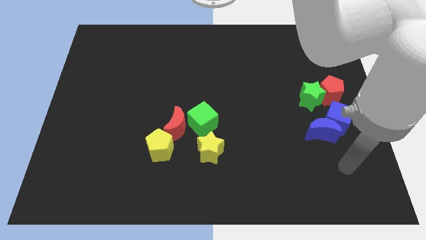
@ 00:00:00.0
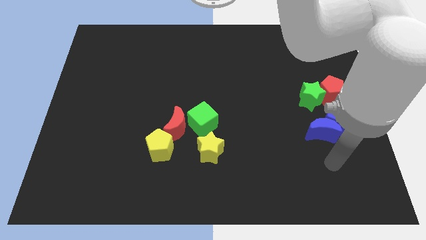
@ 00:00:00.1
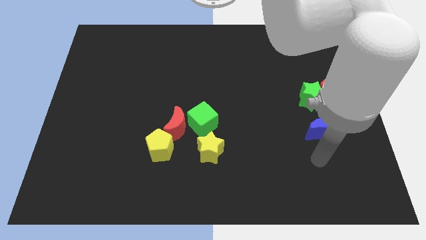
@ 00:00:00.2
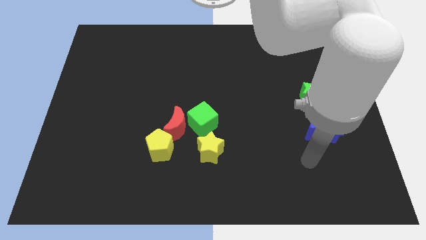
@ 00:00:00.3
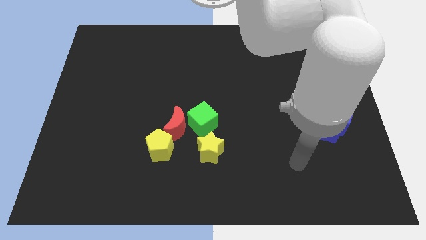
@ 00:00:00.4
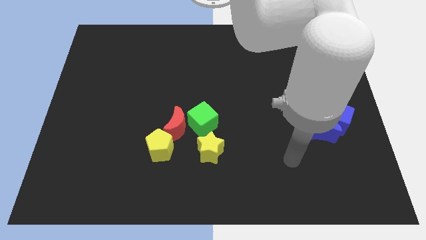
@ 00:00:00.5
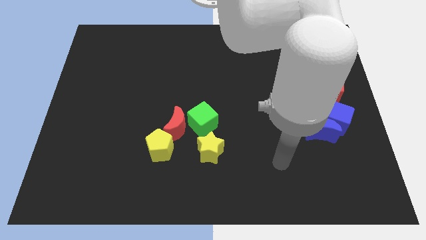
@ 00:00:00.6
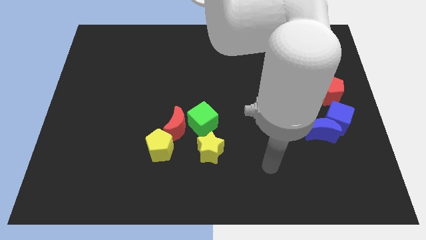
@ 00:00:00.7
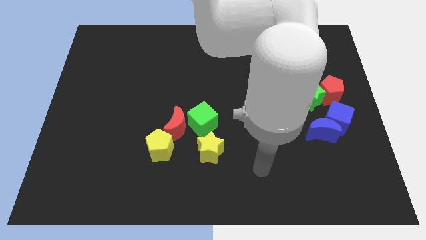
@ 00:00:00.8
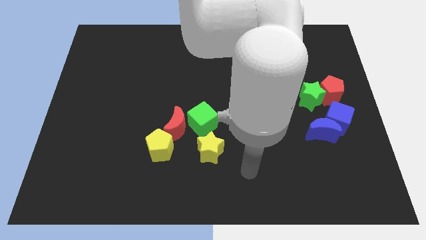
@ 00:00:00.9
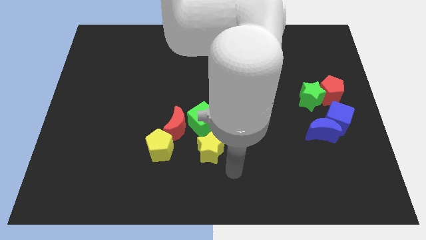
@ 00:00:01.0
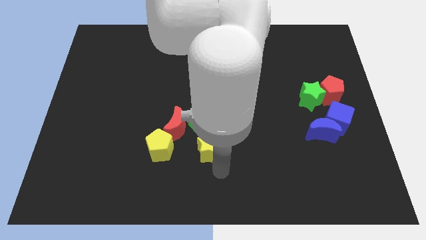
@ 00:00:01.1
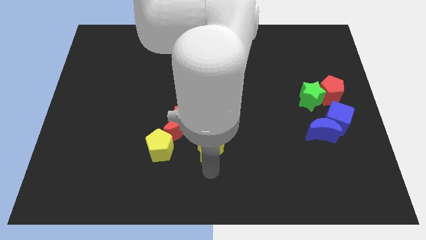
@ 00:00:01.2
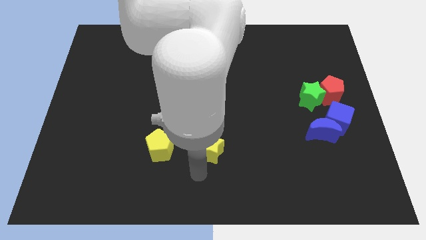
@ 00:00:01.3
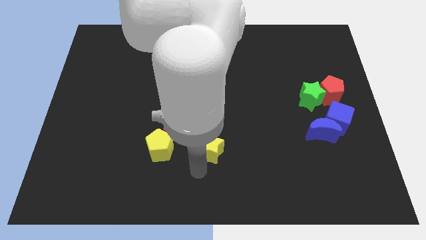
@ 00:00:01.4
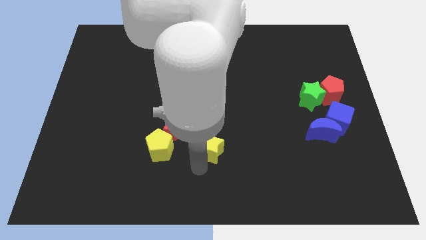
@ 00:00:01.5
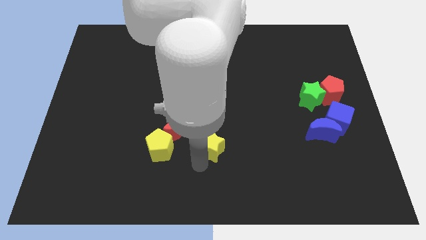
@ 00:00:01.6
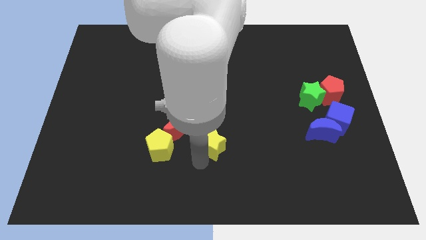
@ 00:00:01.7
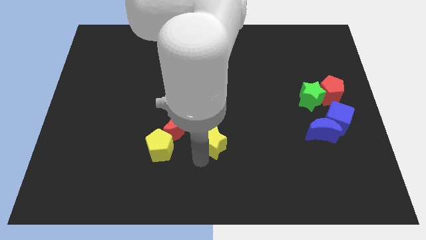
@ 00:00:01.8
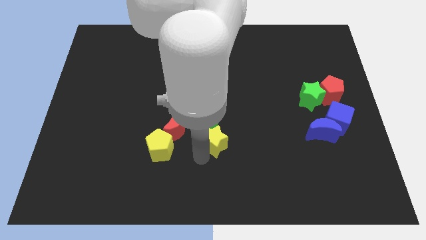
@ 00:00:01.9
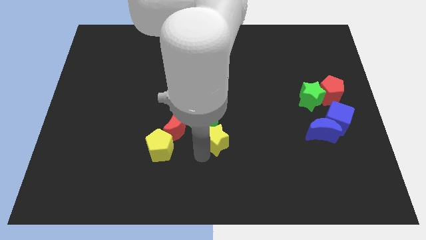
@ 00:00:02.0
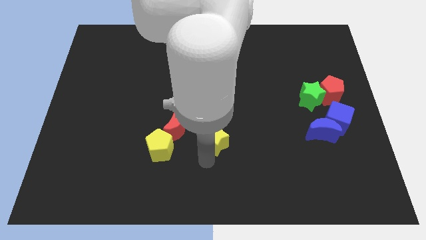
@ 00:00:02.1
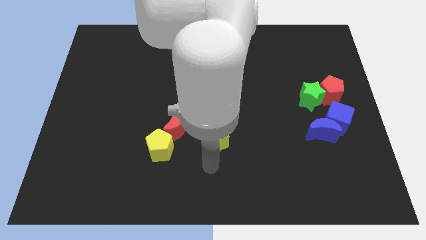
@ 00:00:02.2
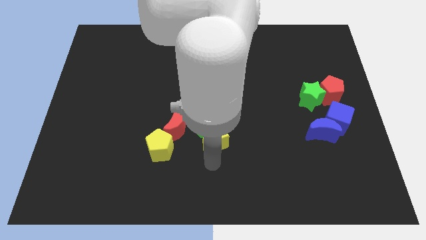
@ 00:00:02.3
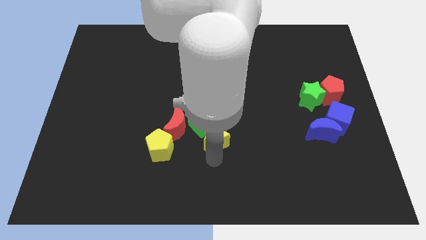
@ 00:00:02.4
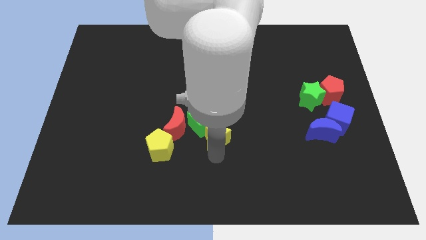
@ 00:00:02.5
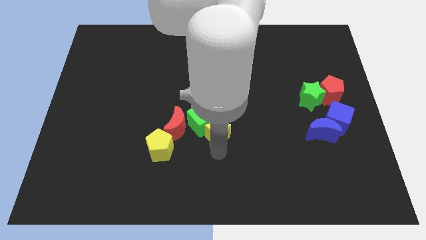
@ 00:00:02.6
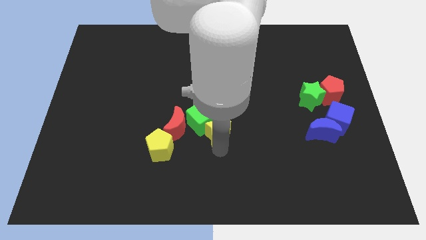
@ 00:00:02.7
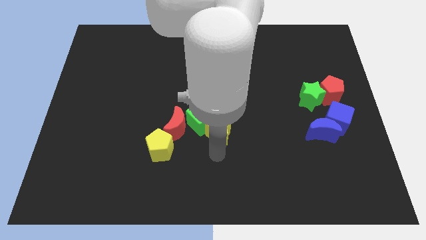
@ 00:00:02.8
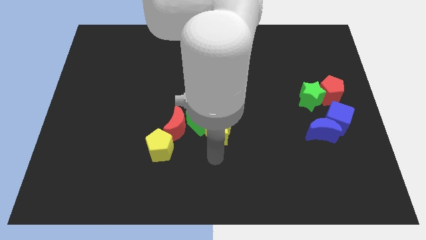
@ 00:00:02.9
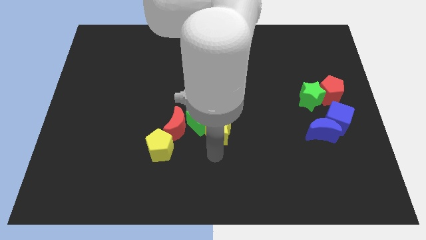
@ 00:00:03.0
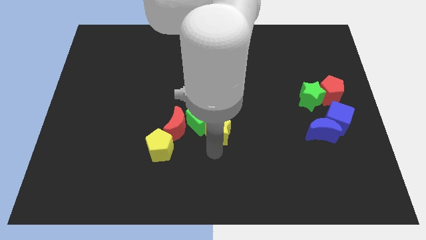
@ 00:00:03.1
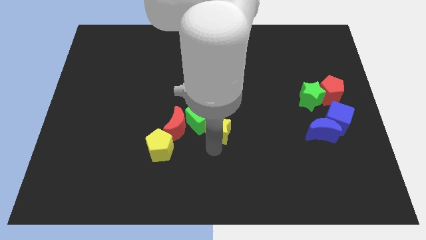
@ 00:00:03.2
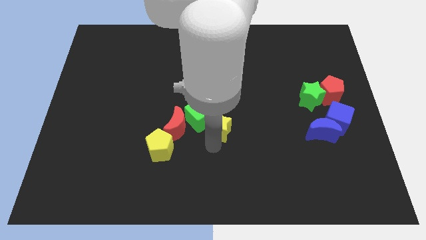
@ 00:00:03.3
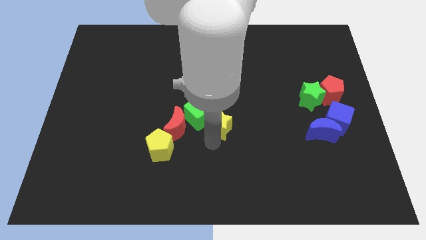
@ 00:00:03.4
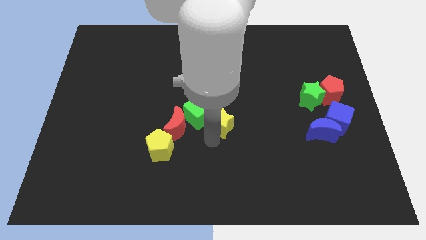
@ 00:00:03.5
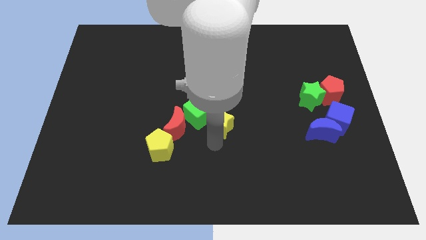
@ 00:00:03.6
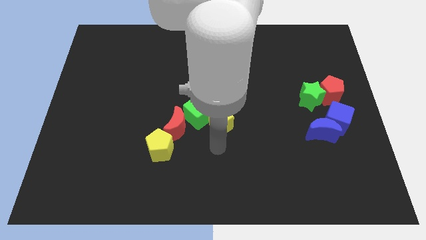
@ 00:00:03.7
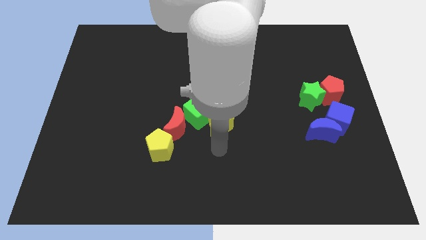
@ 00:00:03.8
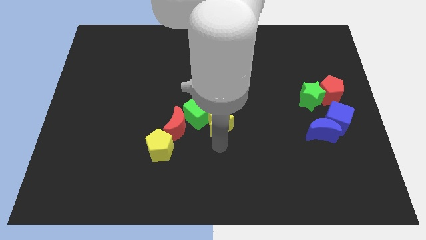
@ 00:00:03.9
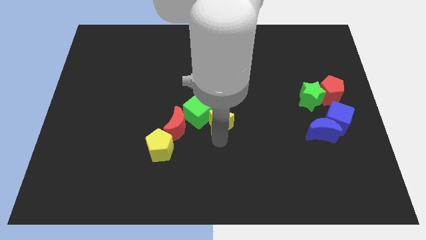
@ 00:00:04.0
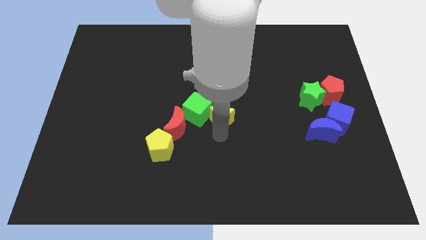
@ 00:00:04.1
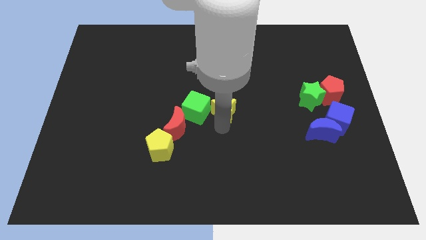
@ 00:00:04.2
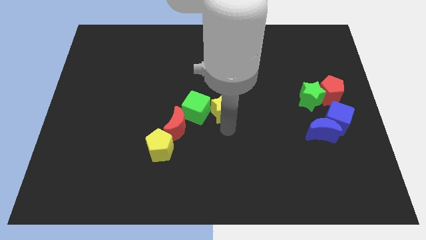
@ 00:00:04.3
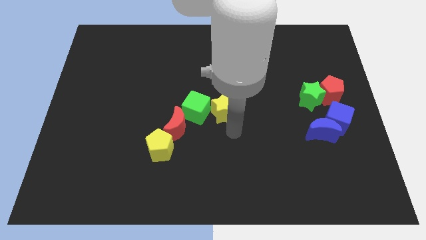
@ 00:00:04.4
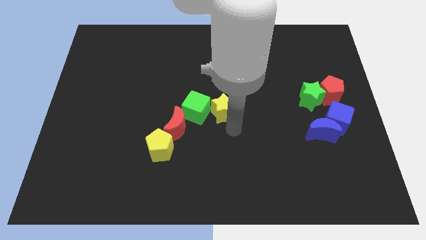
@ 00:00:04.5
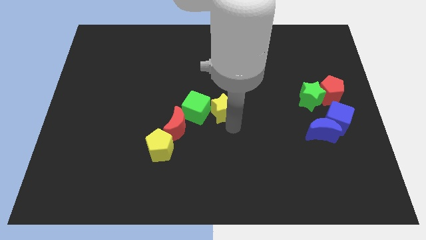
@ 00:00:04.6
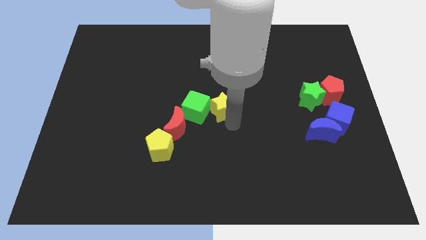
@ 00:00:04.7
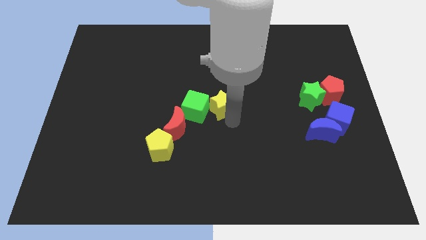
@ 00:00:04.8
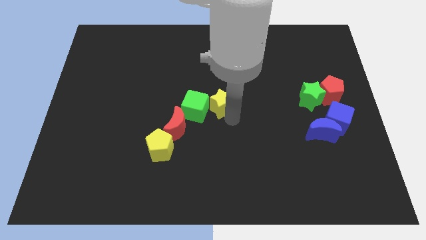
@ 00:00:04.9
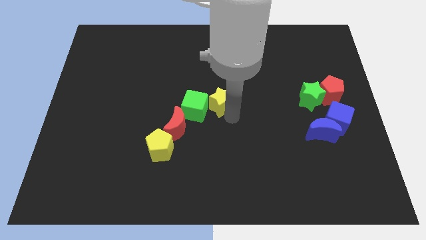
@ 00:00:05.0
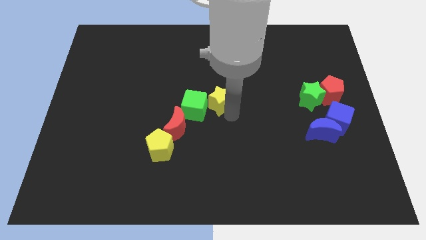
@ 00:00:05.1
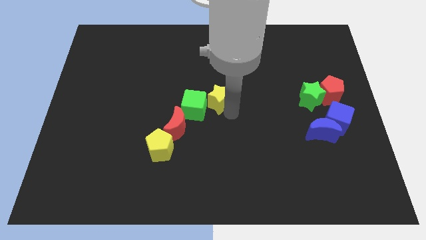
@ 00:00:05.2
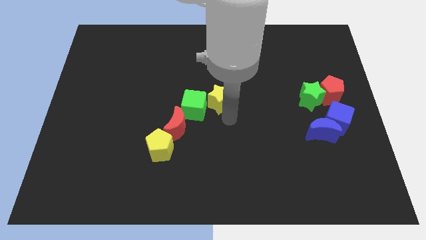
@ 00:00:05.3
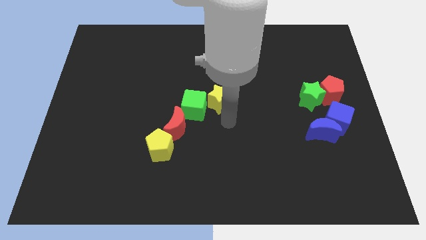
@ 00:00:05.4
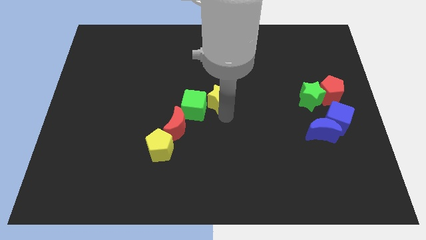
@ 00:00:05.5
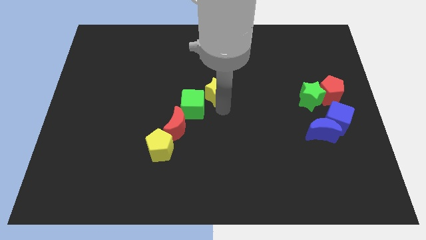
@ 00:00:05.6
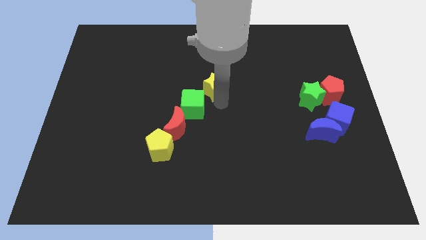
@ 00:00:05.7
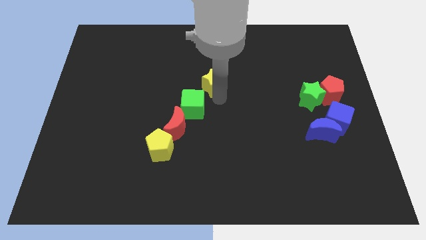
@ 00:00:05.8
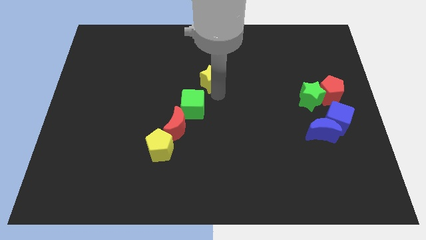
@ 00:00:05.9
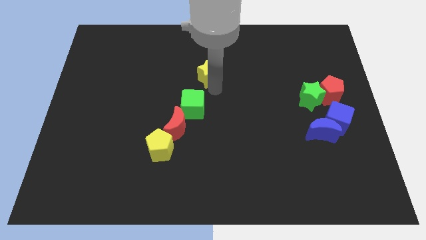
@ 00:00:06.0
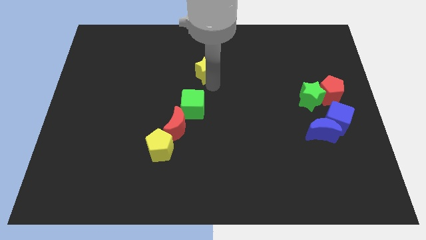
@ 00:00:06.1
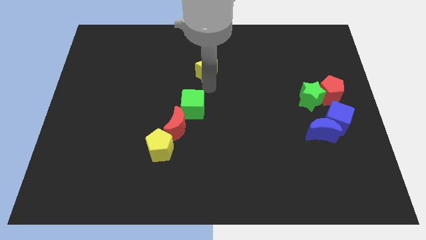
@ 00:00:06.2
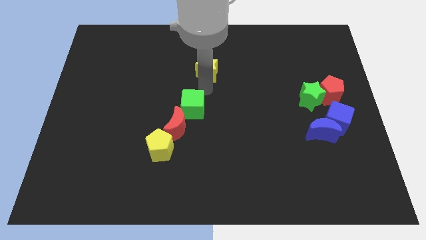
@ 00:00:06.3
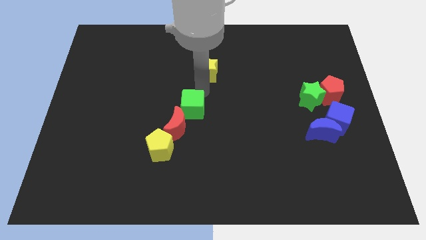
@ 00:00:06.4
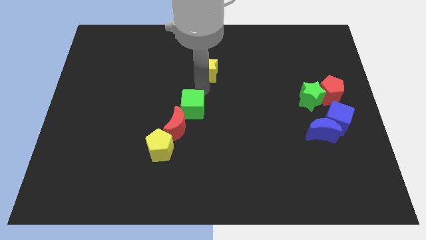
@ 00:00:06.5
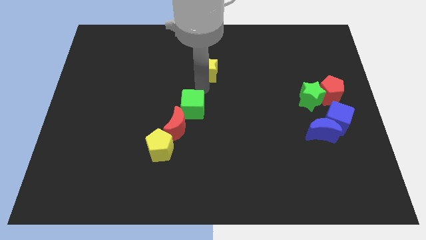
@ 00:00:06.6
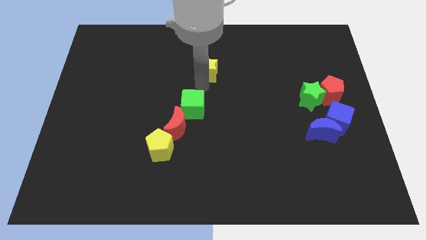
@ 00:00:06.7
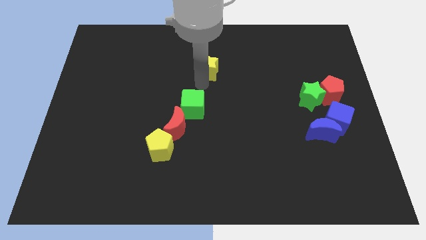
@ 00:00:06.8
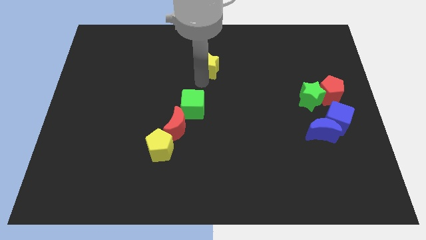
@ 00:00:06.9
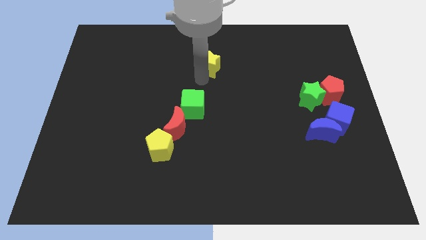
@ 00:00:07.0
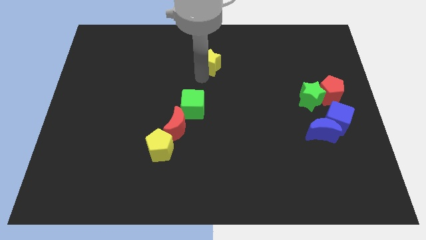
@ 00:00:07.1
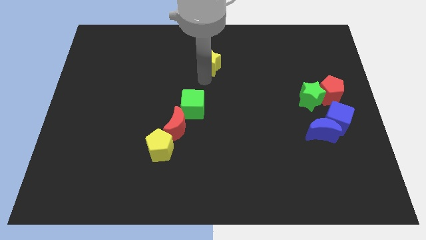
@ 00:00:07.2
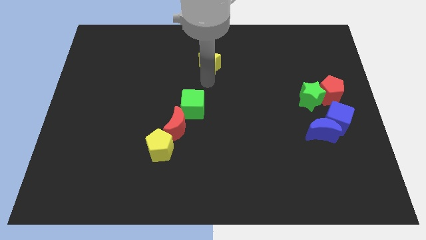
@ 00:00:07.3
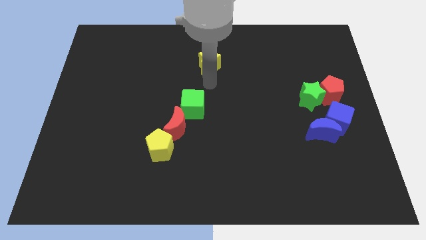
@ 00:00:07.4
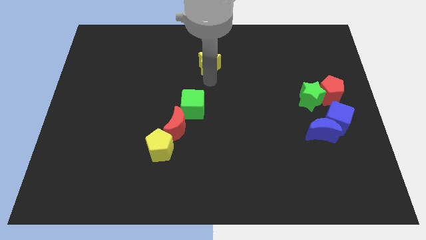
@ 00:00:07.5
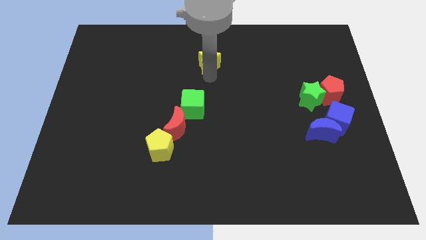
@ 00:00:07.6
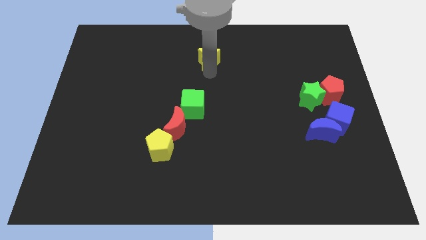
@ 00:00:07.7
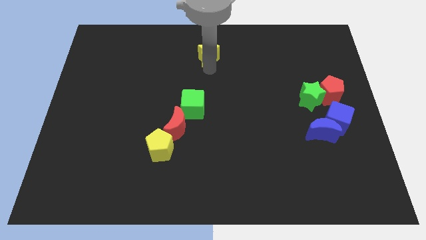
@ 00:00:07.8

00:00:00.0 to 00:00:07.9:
move the yellow star to the top
